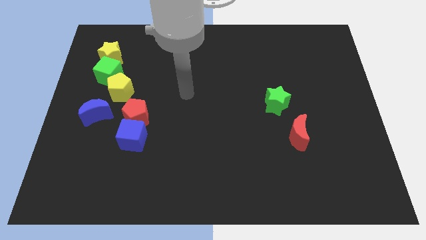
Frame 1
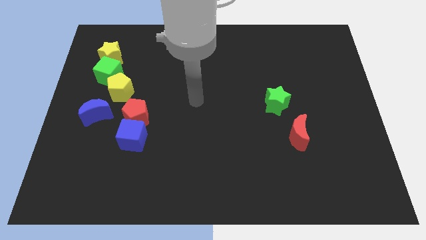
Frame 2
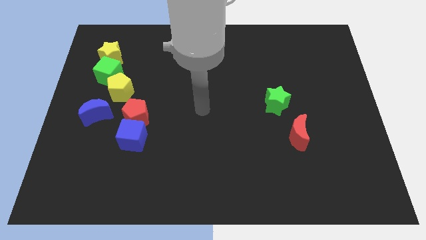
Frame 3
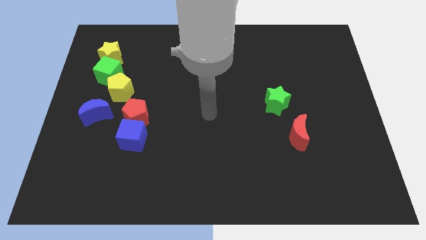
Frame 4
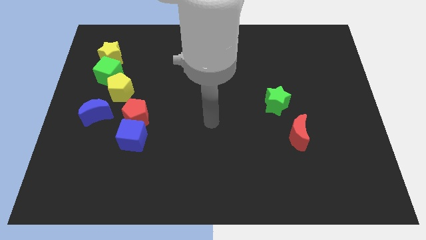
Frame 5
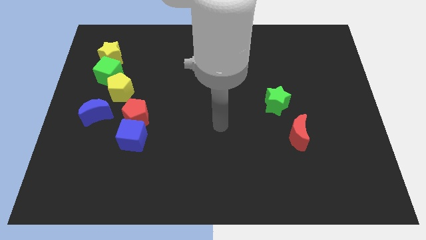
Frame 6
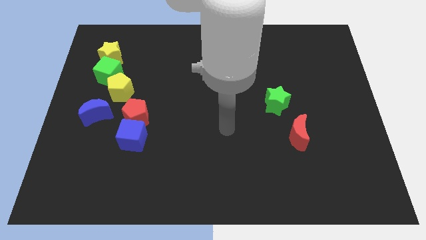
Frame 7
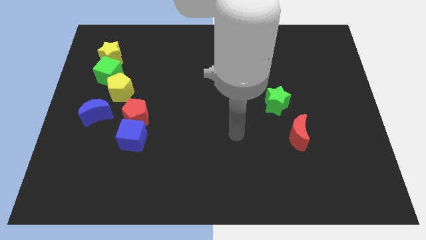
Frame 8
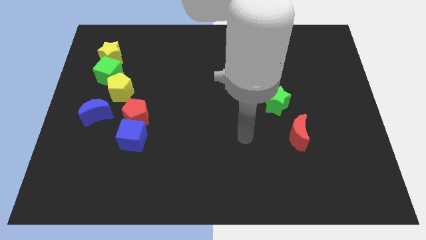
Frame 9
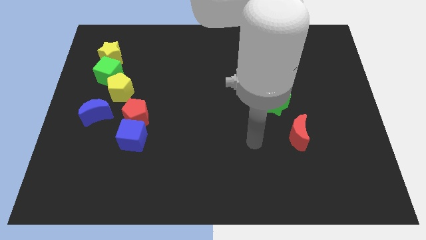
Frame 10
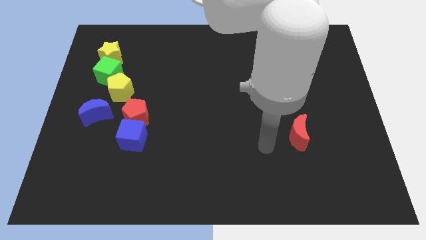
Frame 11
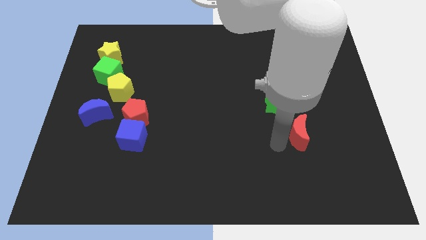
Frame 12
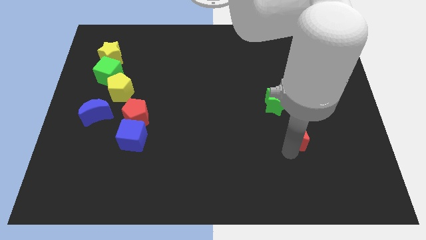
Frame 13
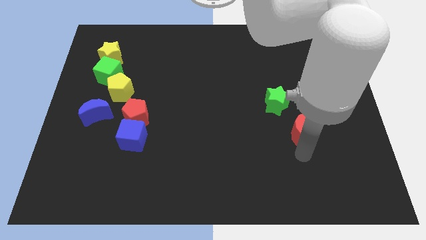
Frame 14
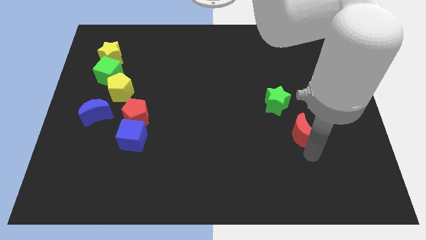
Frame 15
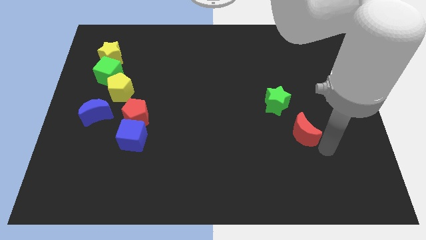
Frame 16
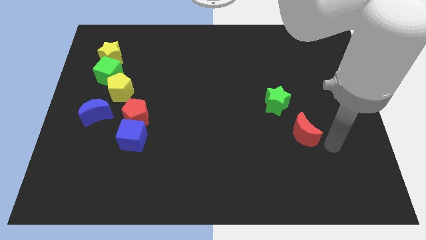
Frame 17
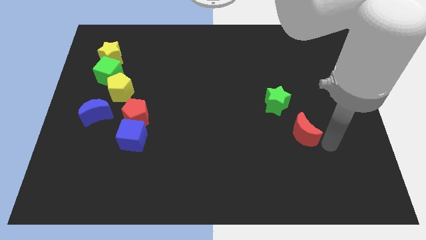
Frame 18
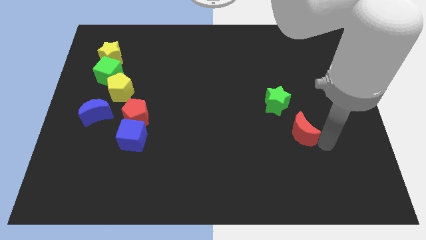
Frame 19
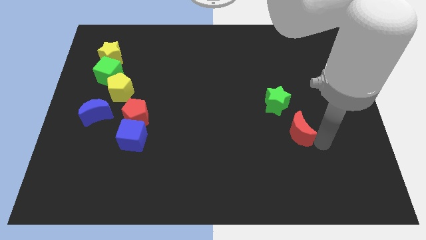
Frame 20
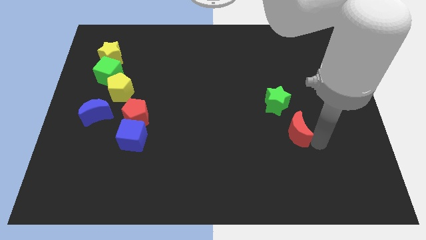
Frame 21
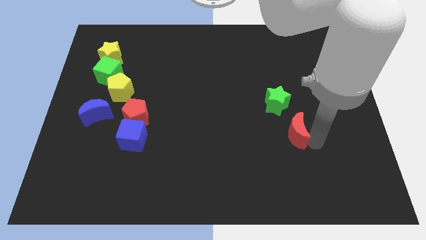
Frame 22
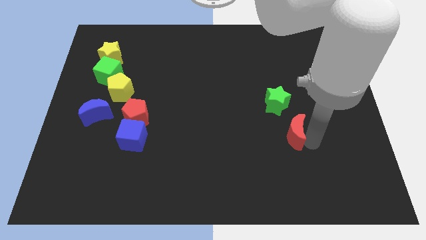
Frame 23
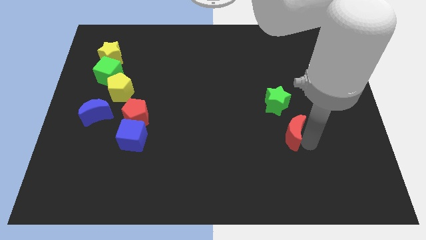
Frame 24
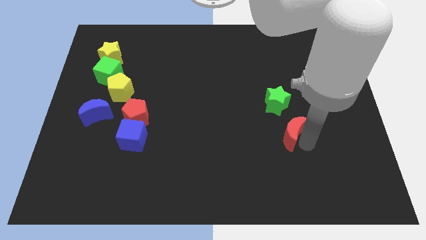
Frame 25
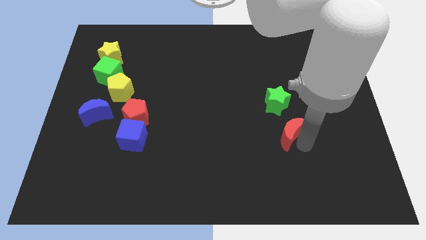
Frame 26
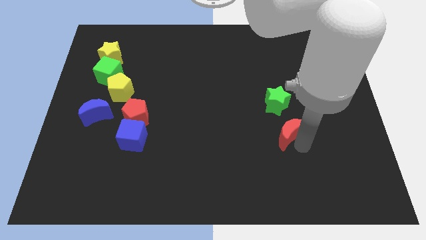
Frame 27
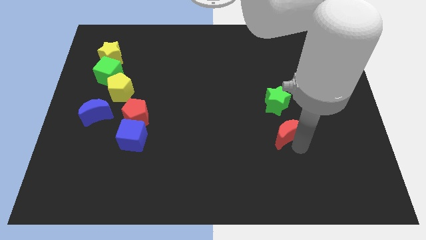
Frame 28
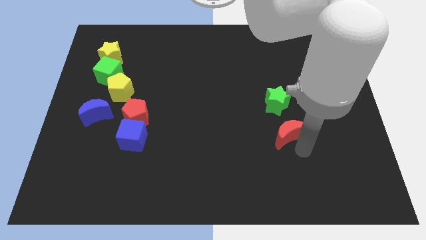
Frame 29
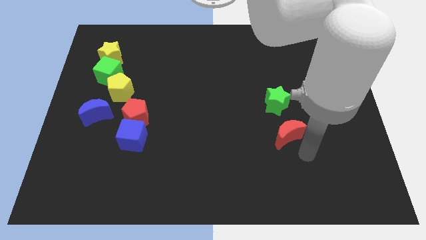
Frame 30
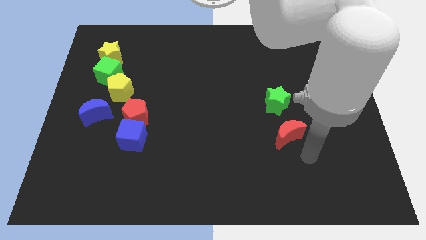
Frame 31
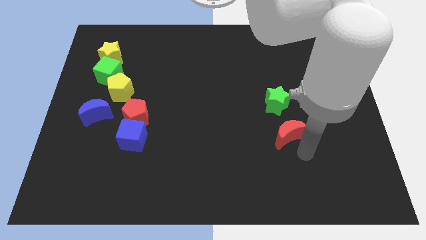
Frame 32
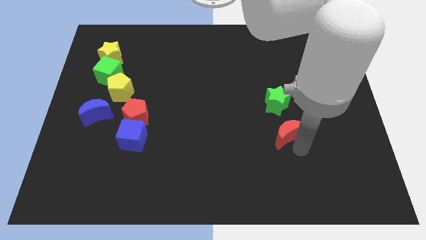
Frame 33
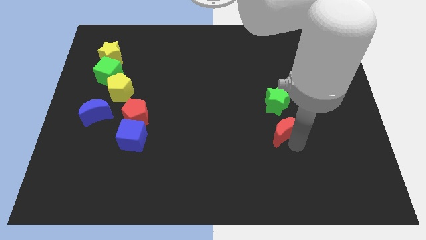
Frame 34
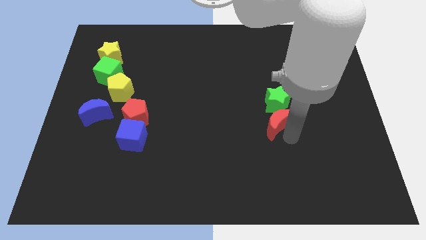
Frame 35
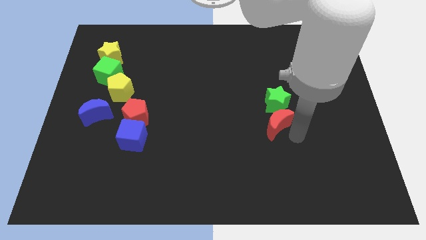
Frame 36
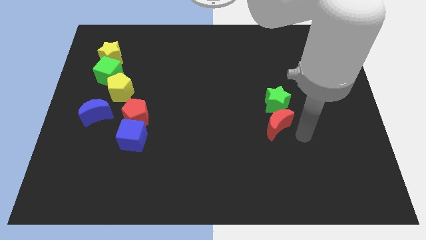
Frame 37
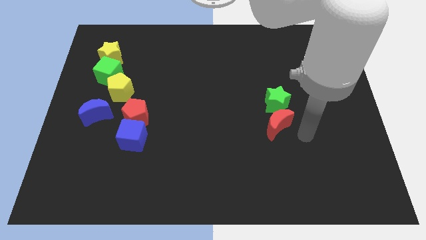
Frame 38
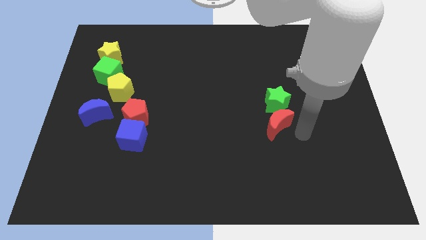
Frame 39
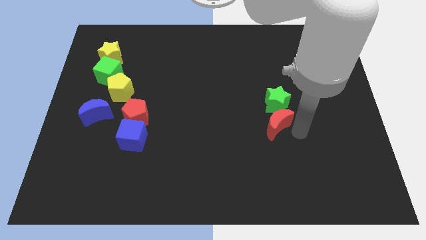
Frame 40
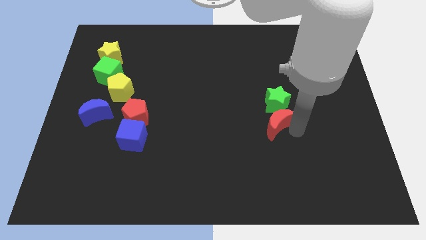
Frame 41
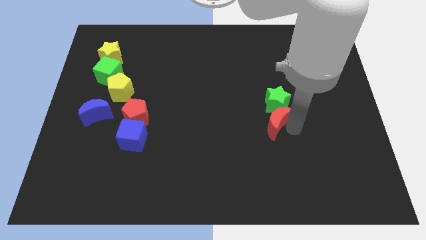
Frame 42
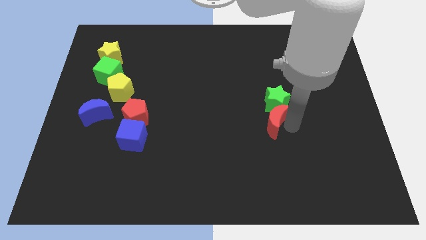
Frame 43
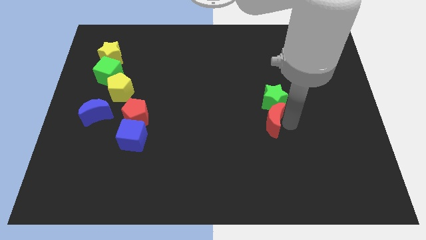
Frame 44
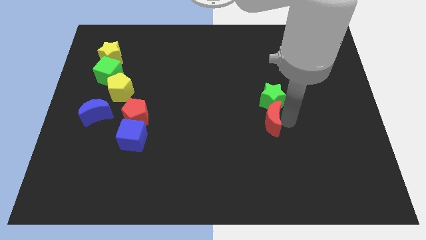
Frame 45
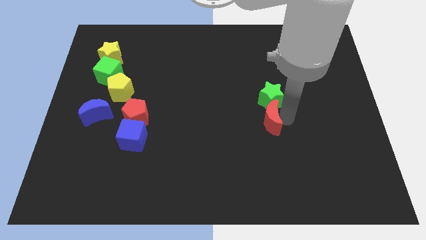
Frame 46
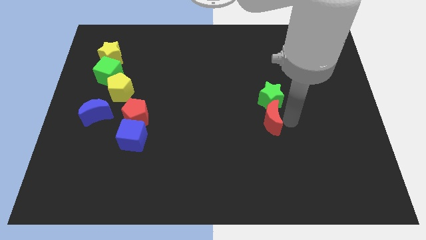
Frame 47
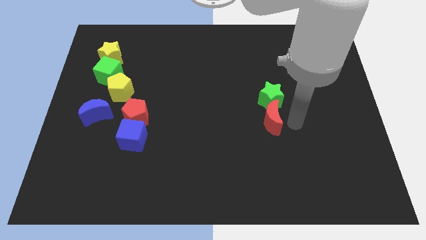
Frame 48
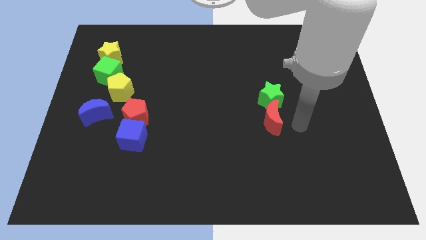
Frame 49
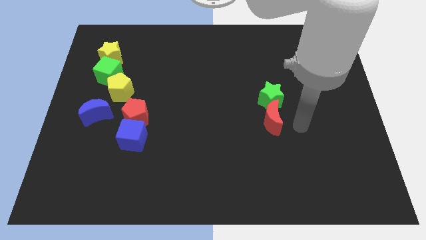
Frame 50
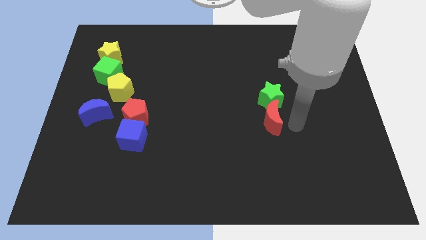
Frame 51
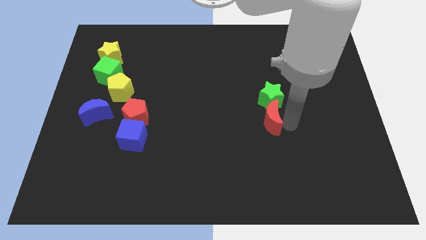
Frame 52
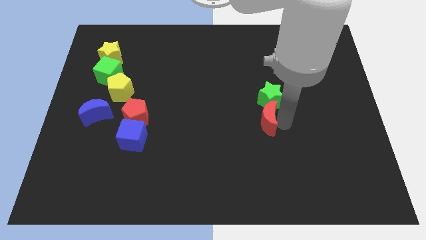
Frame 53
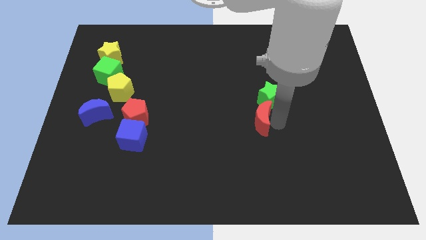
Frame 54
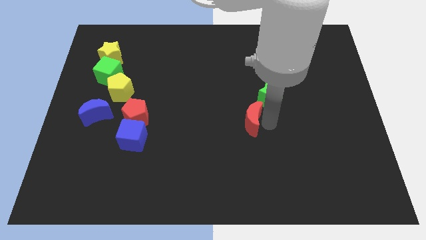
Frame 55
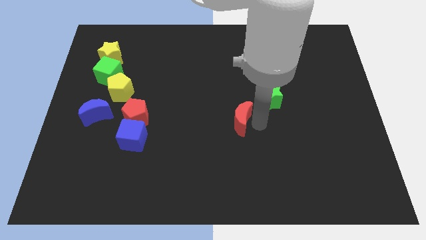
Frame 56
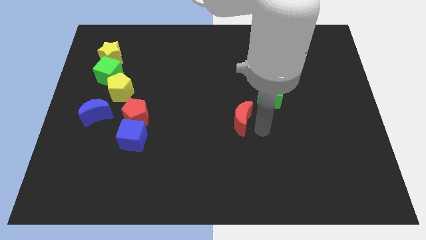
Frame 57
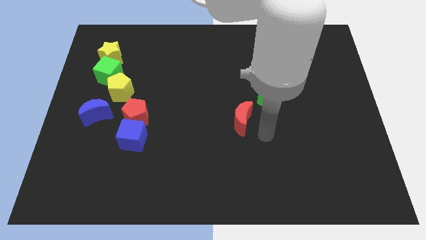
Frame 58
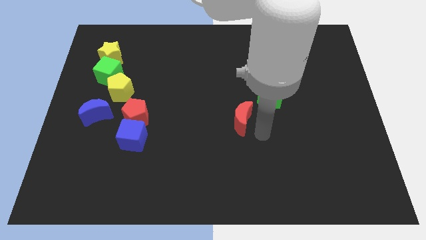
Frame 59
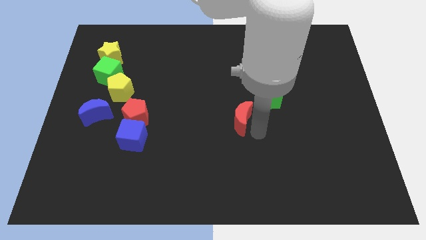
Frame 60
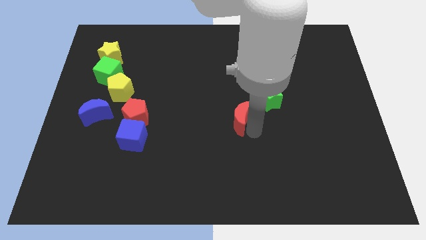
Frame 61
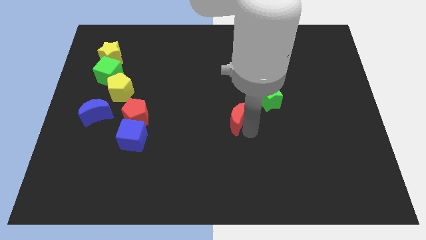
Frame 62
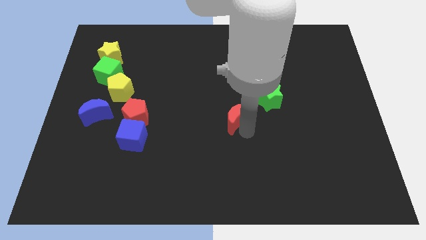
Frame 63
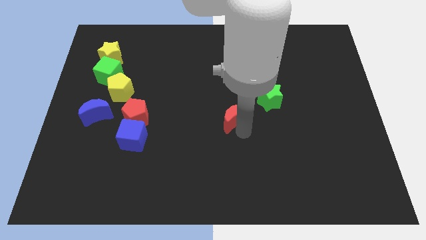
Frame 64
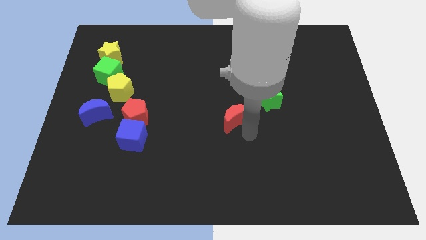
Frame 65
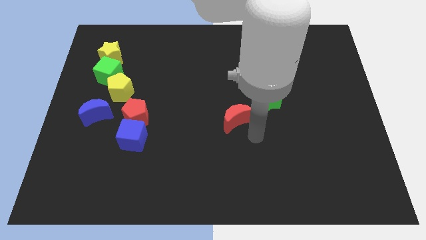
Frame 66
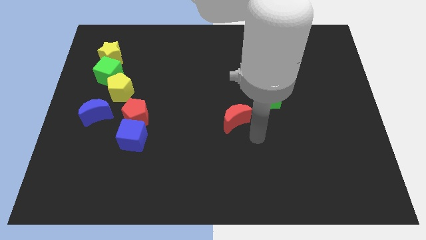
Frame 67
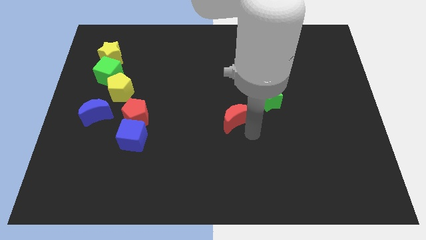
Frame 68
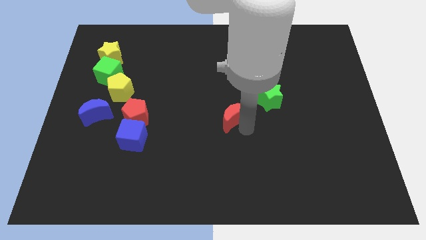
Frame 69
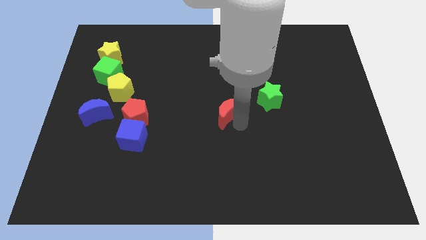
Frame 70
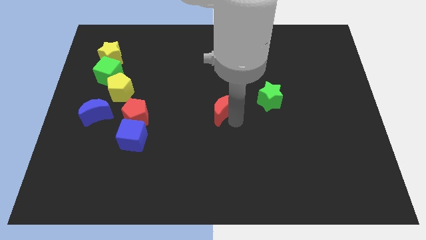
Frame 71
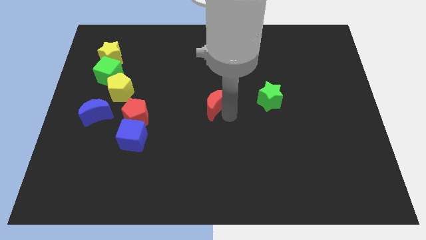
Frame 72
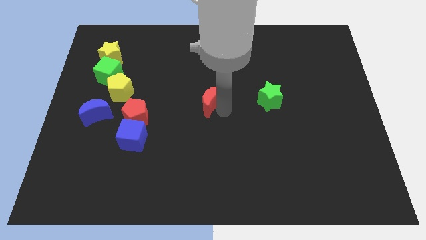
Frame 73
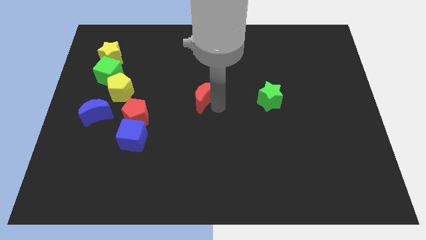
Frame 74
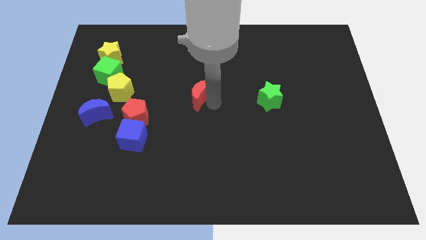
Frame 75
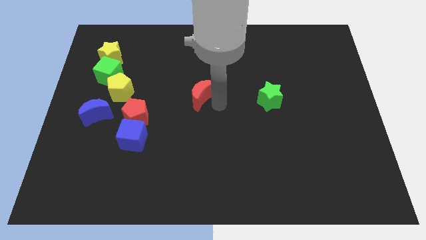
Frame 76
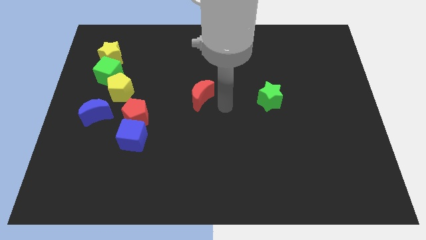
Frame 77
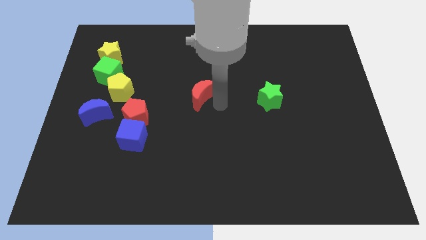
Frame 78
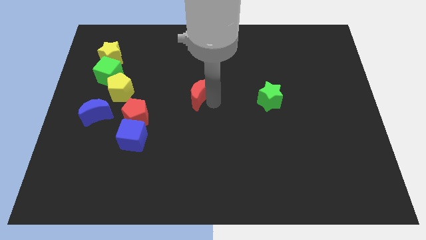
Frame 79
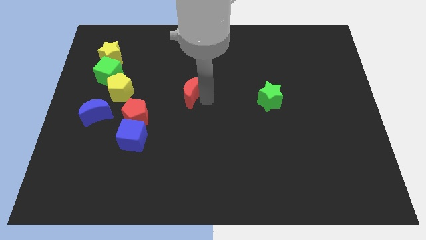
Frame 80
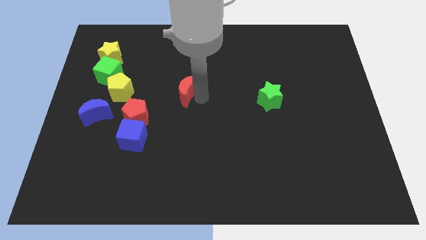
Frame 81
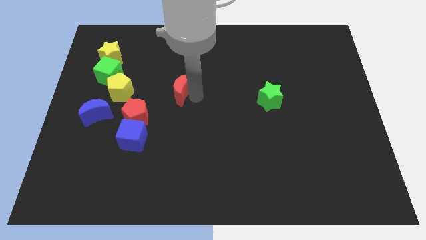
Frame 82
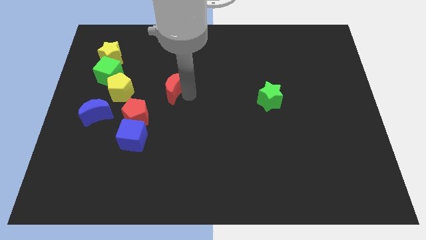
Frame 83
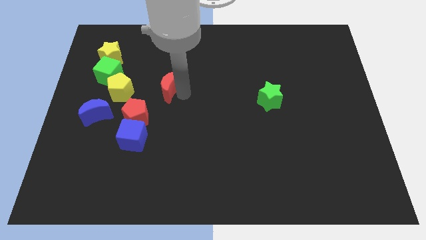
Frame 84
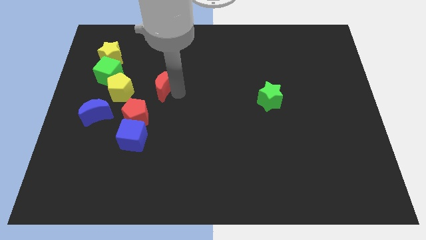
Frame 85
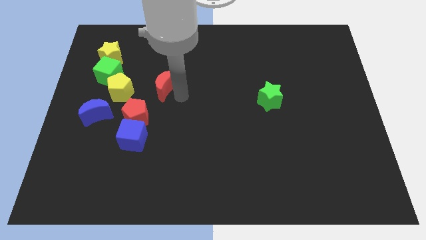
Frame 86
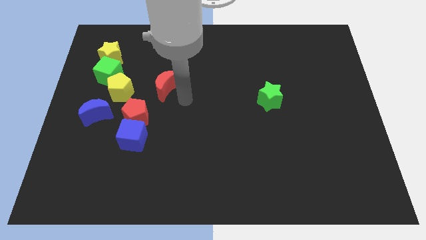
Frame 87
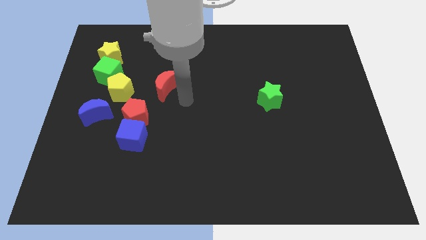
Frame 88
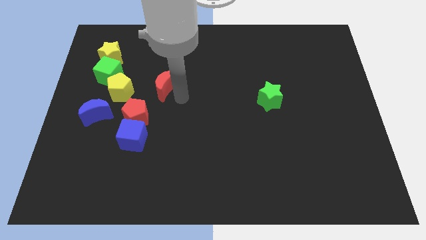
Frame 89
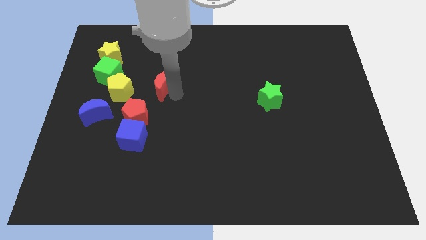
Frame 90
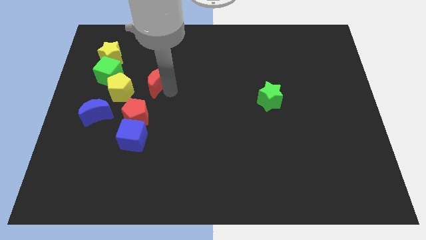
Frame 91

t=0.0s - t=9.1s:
push the red moon to the top right side of the yellow pentagon
